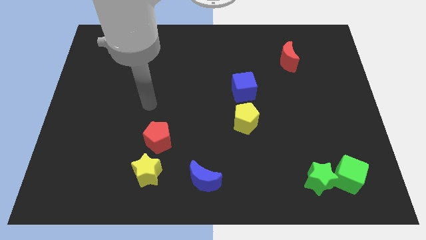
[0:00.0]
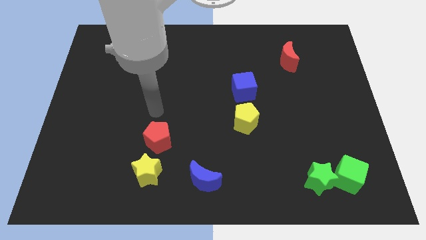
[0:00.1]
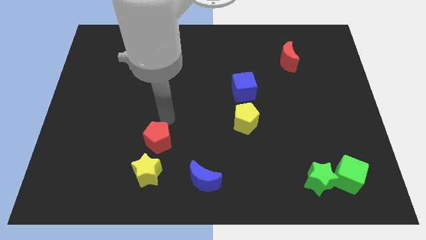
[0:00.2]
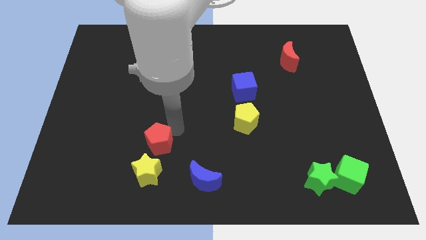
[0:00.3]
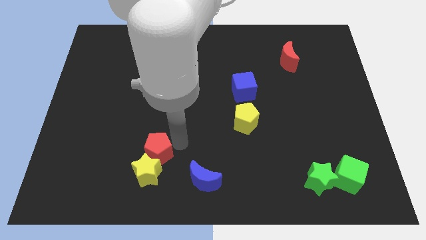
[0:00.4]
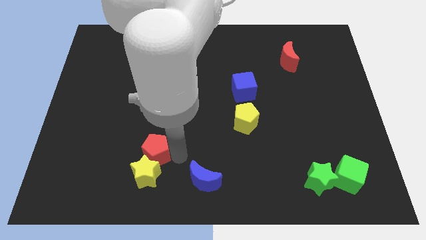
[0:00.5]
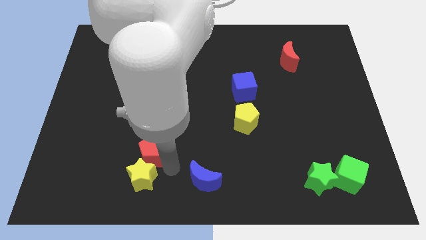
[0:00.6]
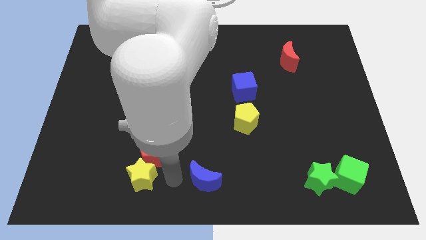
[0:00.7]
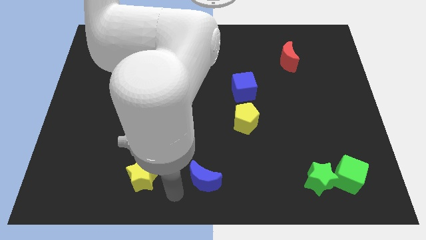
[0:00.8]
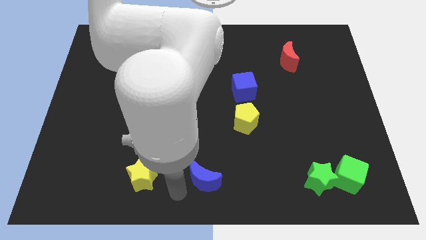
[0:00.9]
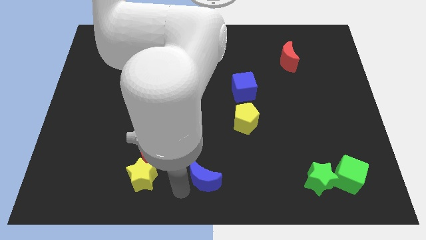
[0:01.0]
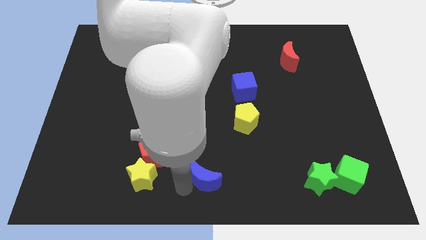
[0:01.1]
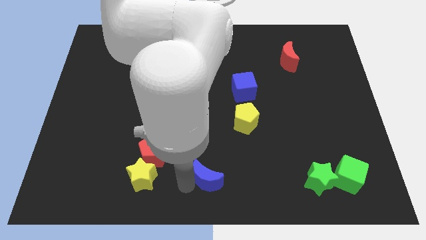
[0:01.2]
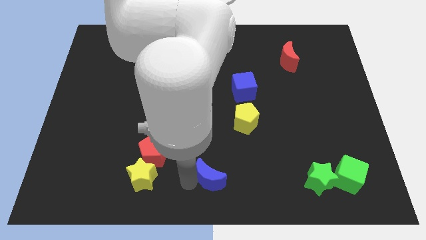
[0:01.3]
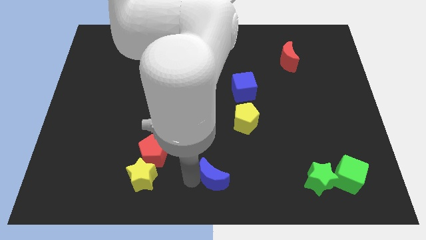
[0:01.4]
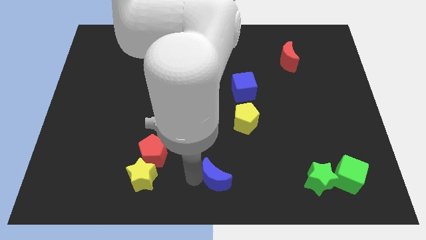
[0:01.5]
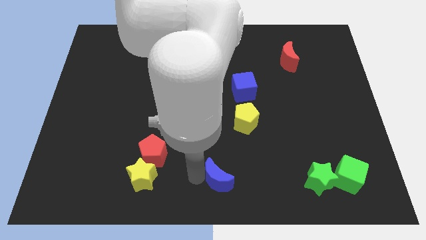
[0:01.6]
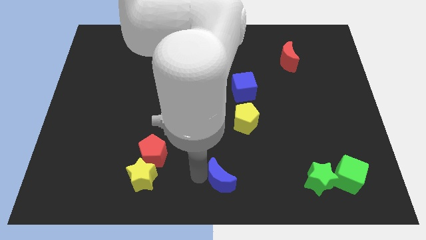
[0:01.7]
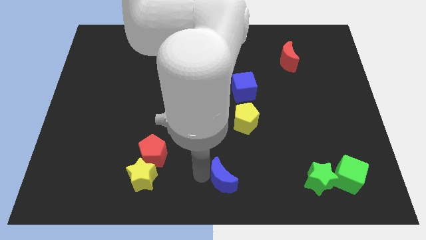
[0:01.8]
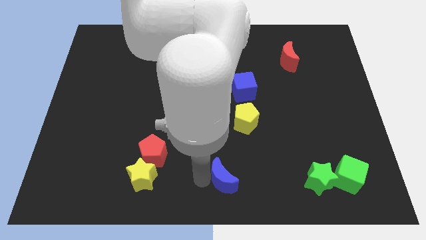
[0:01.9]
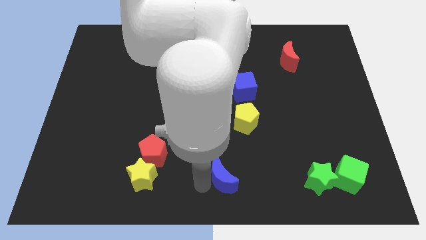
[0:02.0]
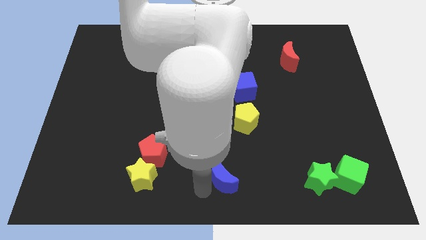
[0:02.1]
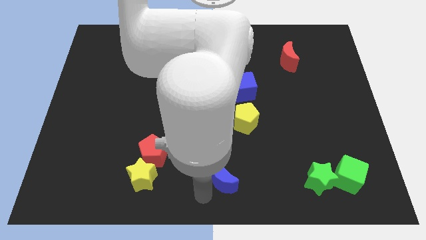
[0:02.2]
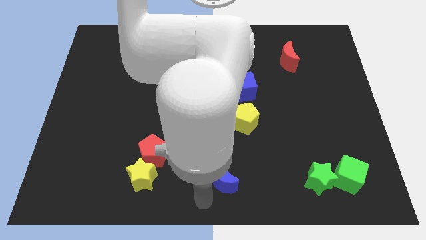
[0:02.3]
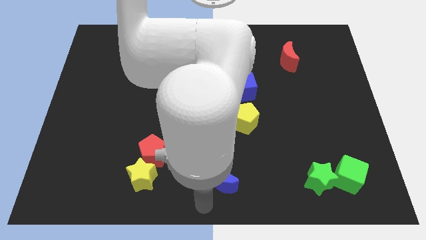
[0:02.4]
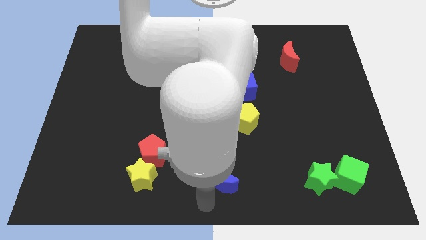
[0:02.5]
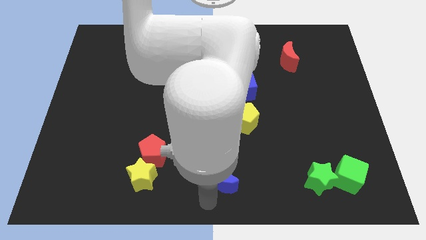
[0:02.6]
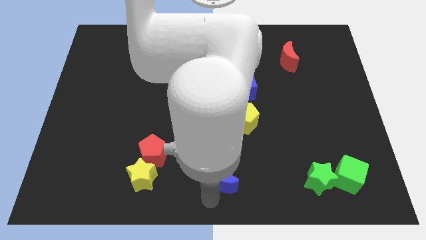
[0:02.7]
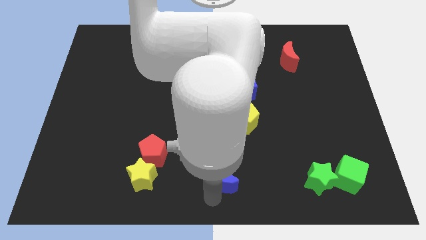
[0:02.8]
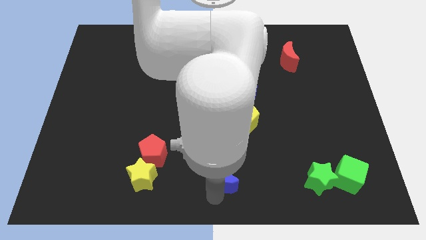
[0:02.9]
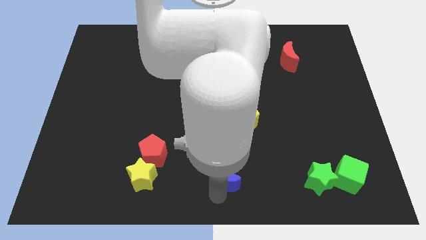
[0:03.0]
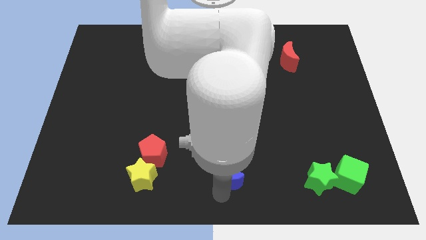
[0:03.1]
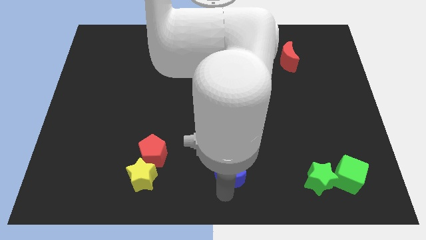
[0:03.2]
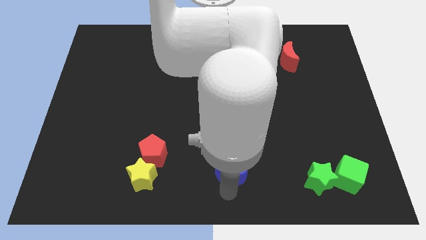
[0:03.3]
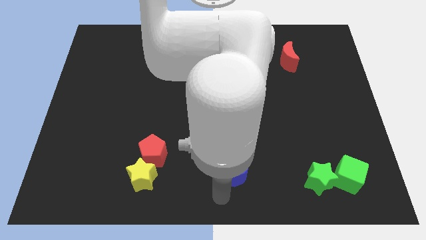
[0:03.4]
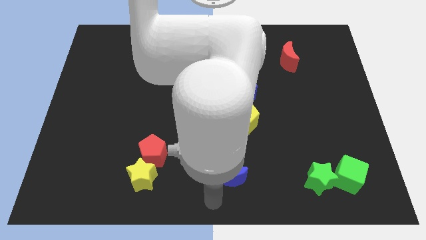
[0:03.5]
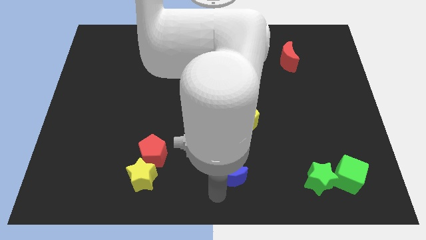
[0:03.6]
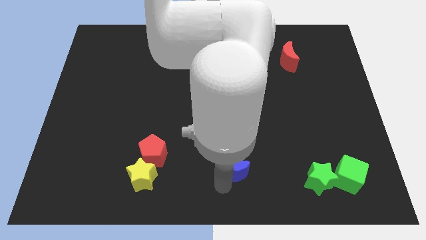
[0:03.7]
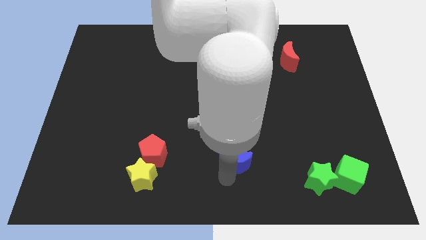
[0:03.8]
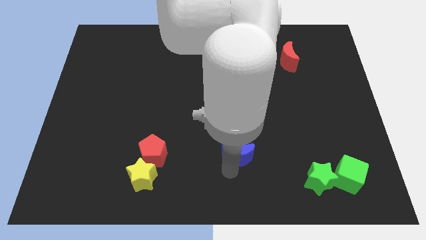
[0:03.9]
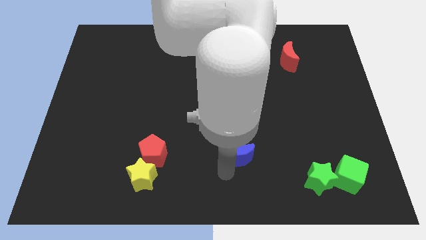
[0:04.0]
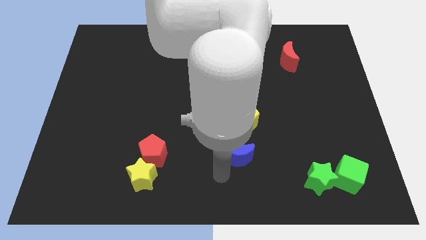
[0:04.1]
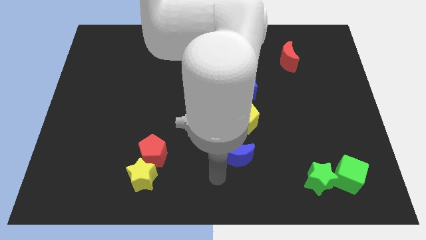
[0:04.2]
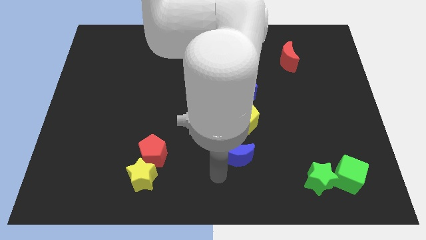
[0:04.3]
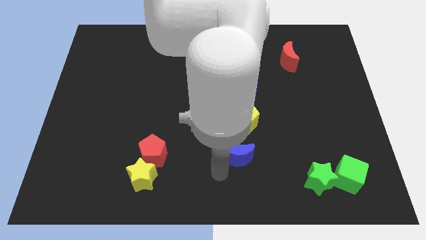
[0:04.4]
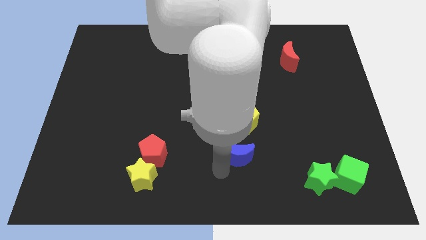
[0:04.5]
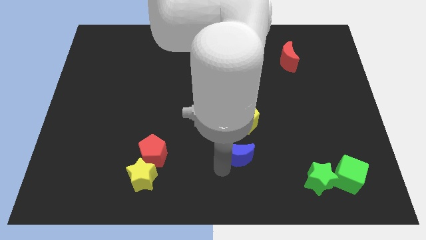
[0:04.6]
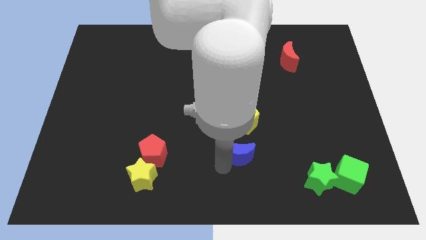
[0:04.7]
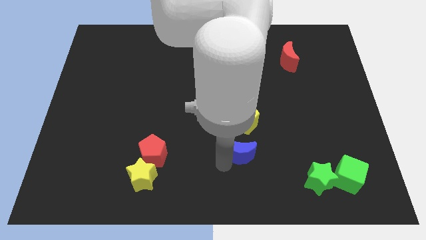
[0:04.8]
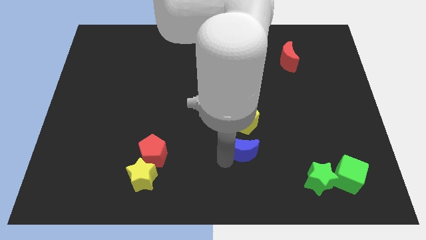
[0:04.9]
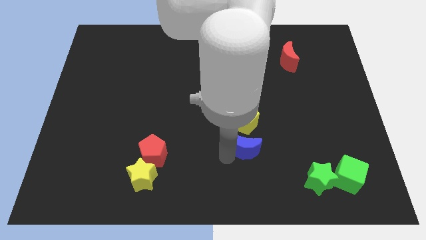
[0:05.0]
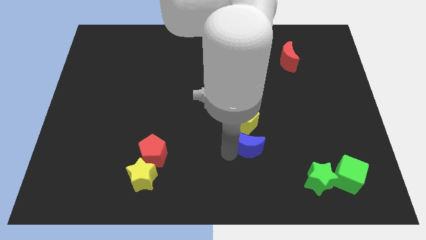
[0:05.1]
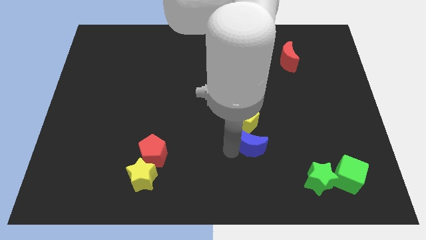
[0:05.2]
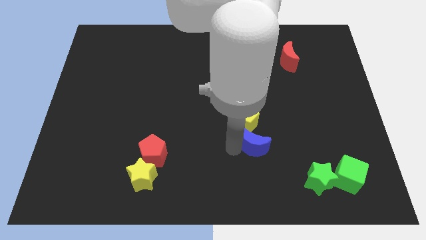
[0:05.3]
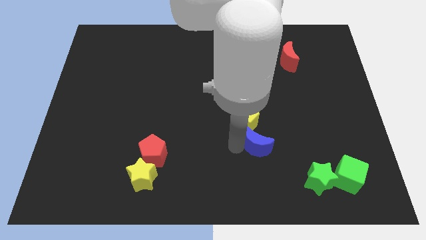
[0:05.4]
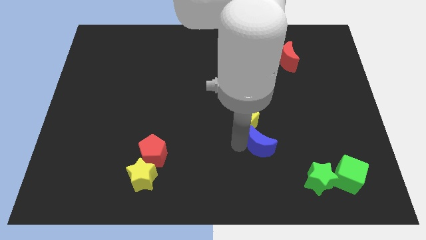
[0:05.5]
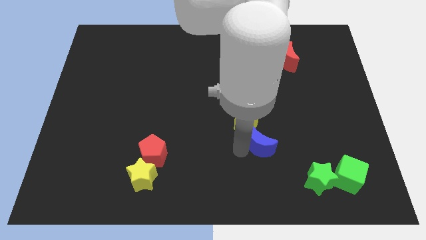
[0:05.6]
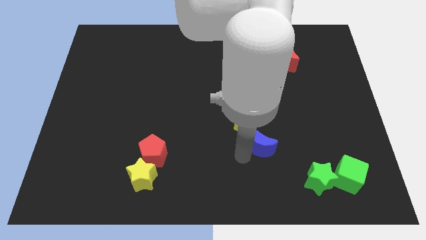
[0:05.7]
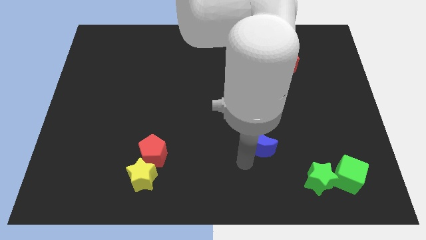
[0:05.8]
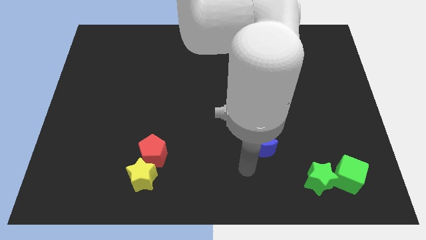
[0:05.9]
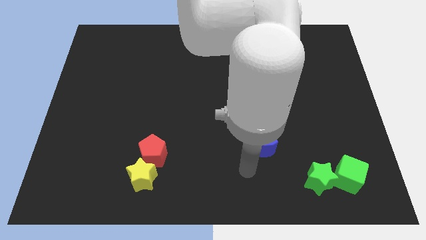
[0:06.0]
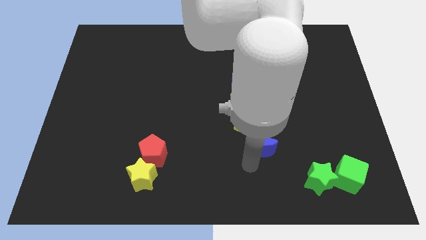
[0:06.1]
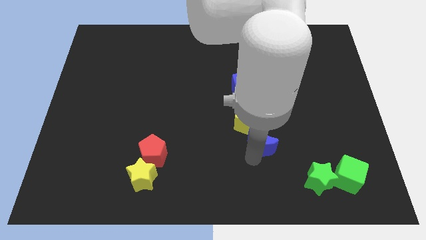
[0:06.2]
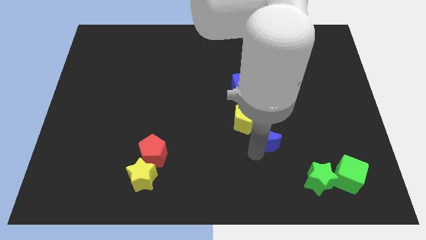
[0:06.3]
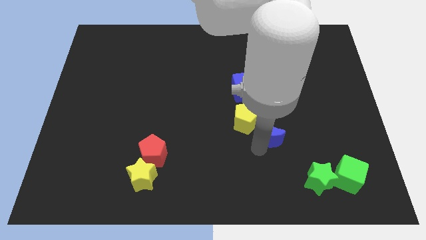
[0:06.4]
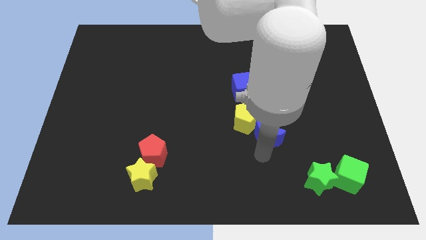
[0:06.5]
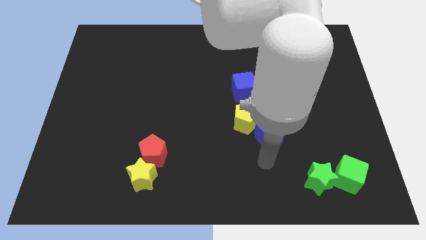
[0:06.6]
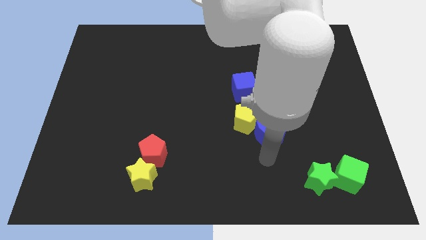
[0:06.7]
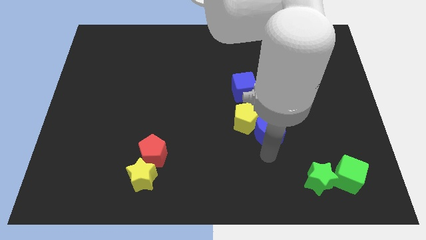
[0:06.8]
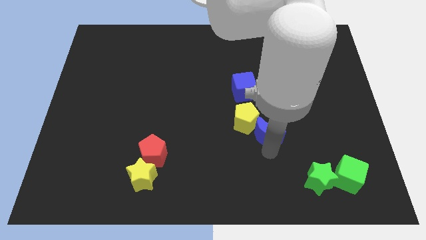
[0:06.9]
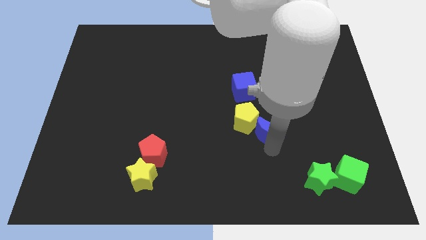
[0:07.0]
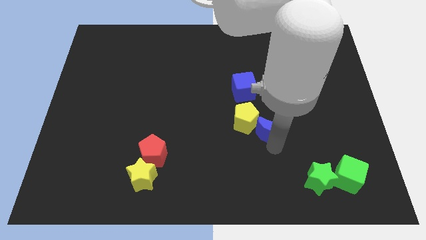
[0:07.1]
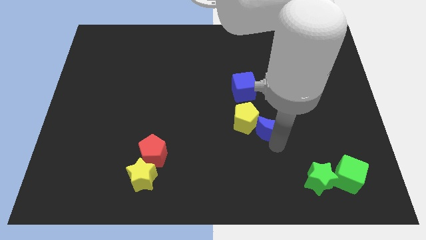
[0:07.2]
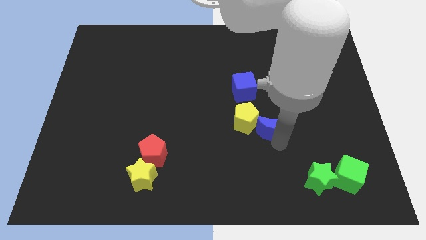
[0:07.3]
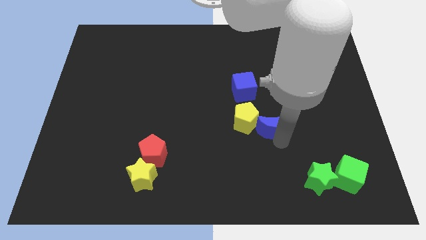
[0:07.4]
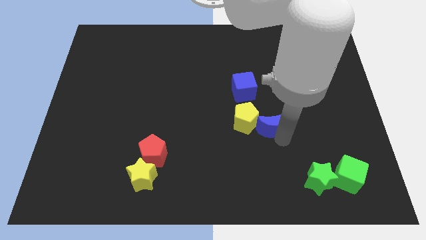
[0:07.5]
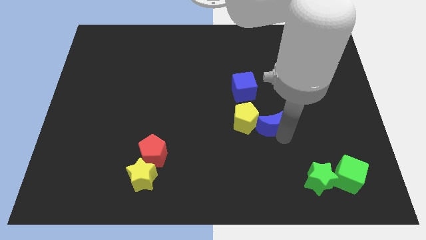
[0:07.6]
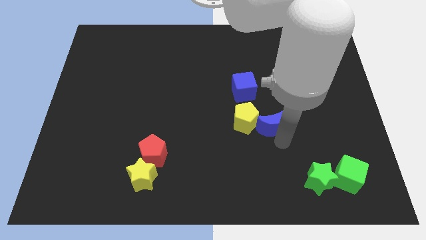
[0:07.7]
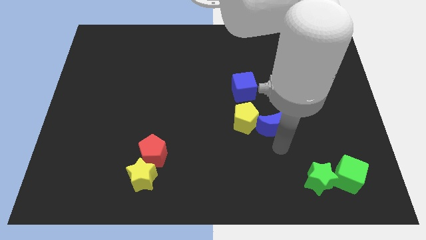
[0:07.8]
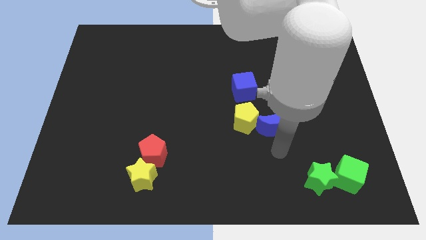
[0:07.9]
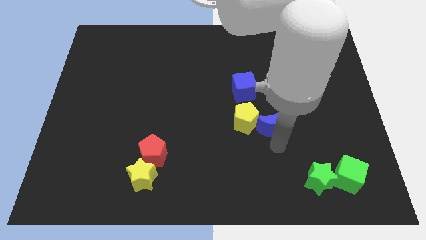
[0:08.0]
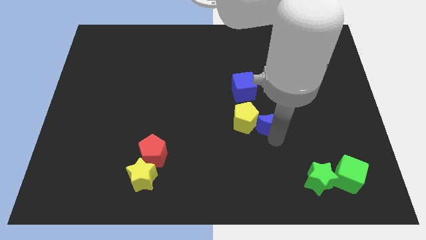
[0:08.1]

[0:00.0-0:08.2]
move the blue moon diagonally down and to the right of the blue cube
